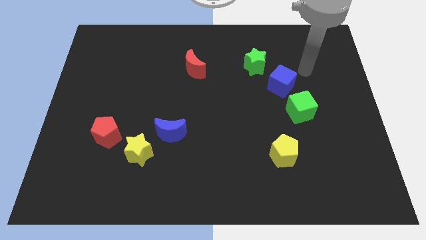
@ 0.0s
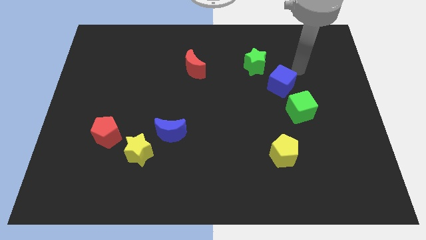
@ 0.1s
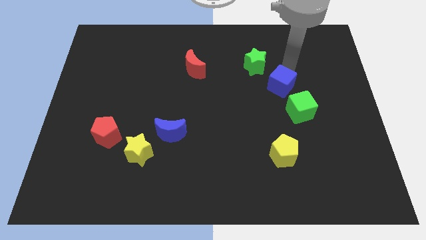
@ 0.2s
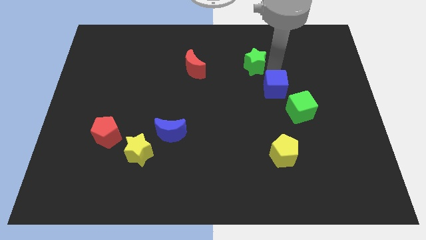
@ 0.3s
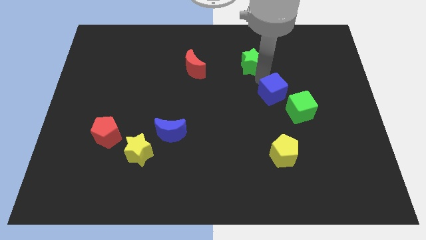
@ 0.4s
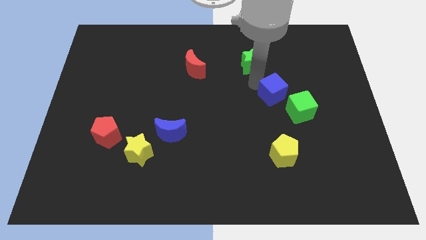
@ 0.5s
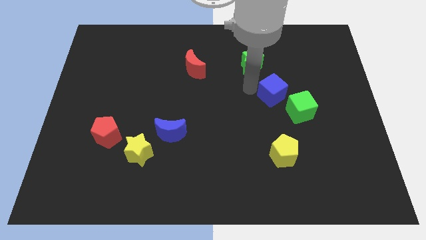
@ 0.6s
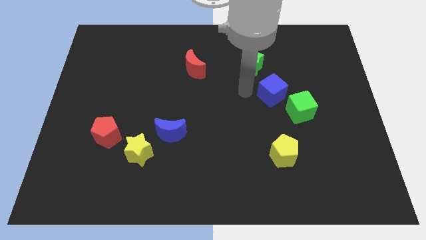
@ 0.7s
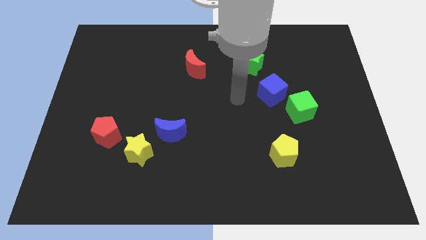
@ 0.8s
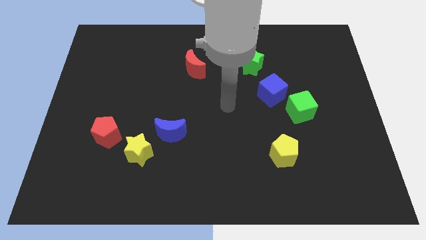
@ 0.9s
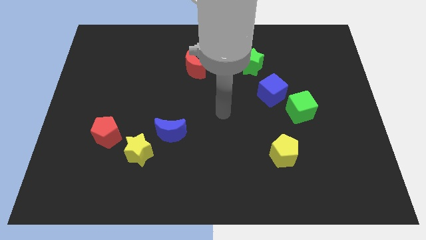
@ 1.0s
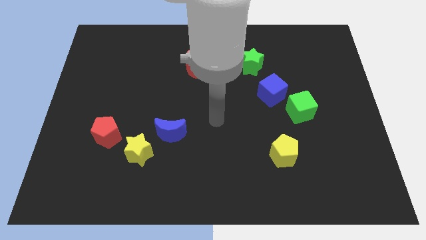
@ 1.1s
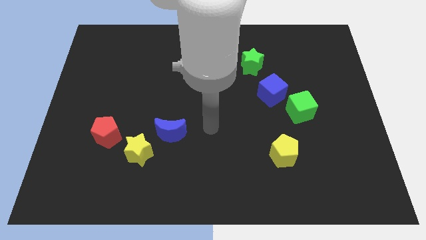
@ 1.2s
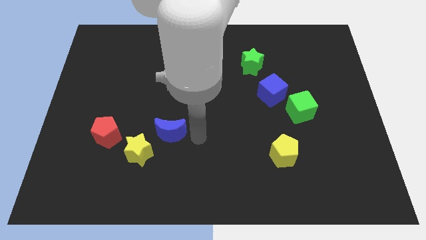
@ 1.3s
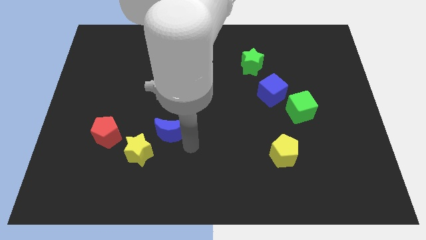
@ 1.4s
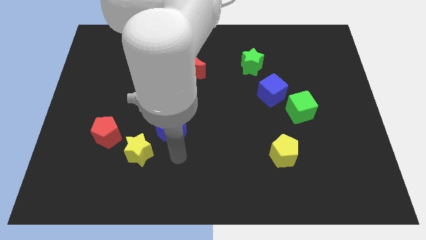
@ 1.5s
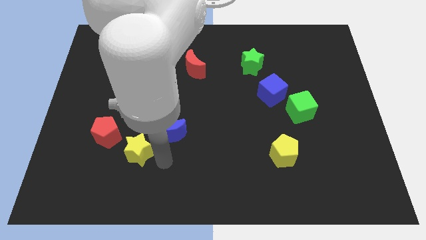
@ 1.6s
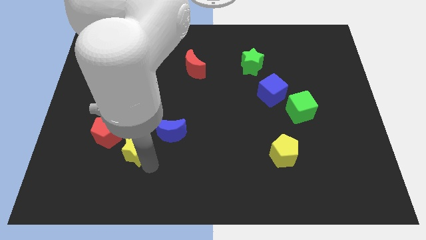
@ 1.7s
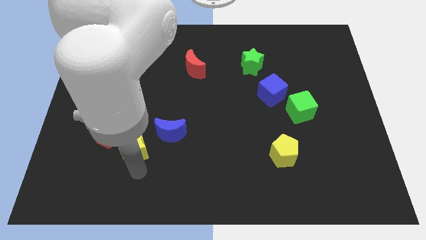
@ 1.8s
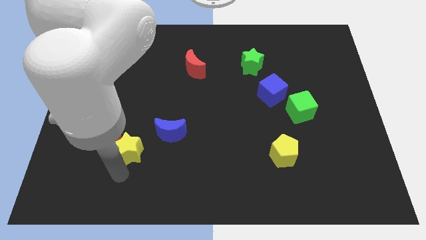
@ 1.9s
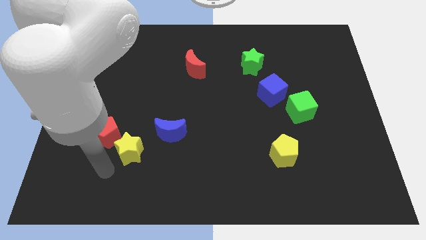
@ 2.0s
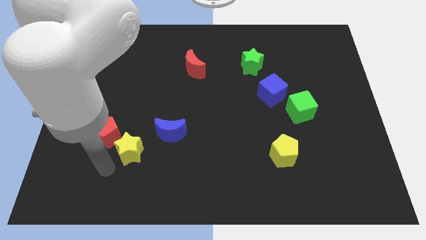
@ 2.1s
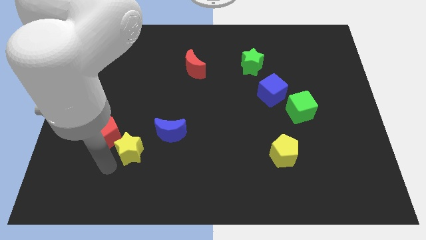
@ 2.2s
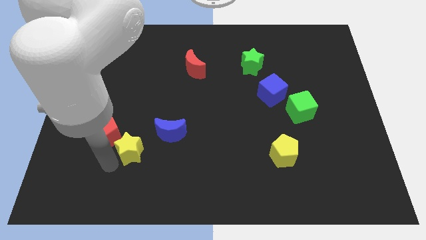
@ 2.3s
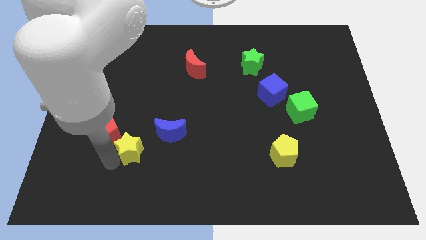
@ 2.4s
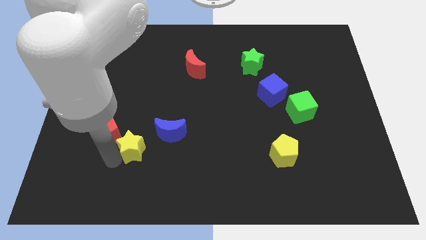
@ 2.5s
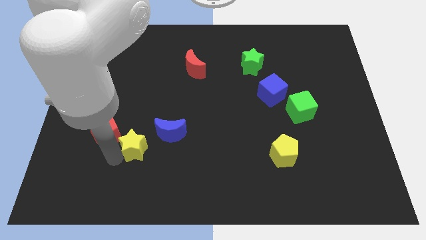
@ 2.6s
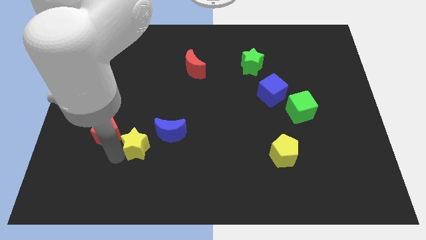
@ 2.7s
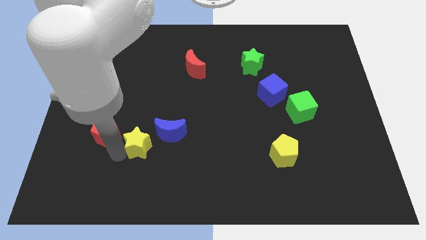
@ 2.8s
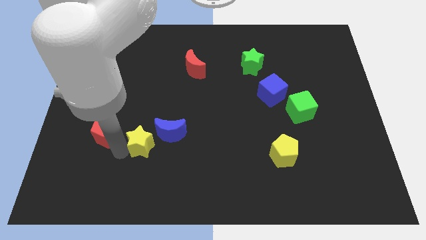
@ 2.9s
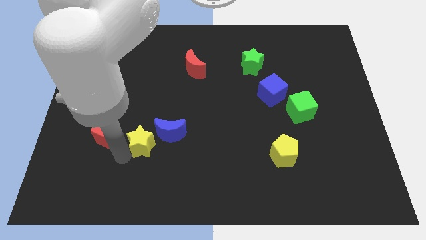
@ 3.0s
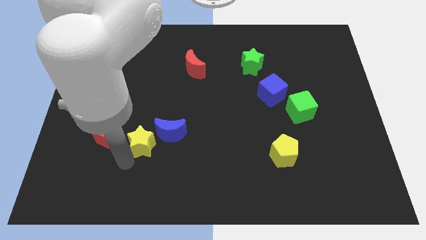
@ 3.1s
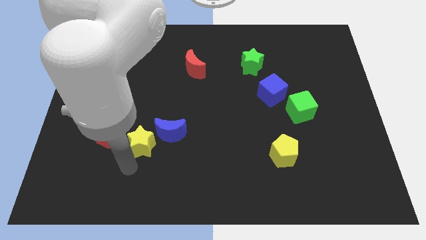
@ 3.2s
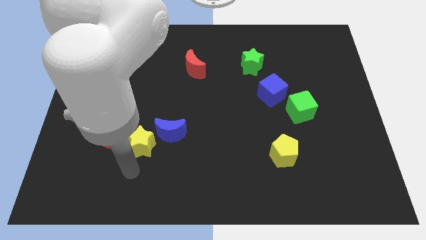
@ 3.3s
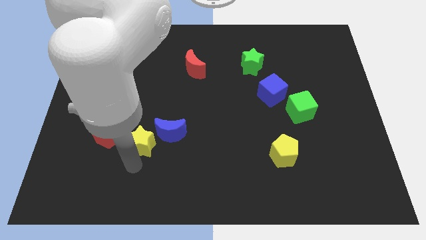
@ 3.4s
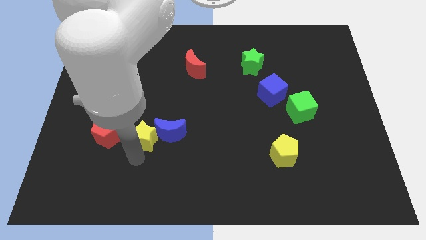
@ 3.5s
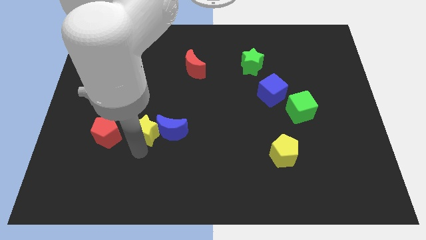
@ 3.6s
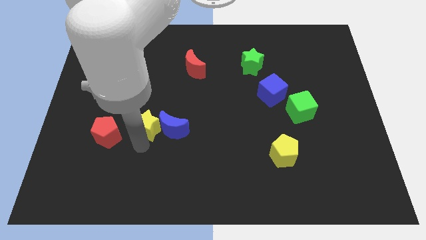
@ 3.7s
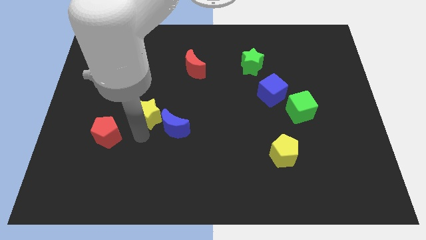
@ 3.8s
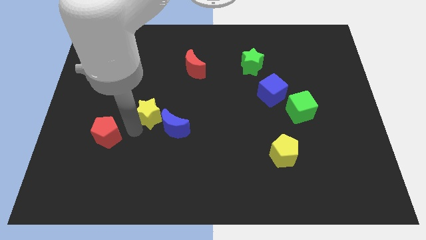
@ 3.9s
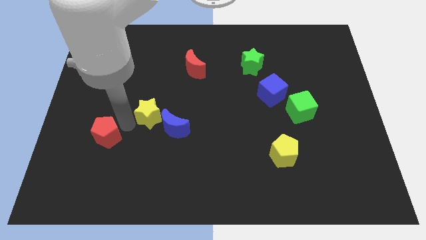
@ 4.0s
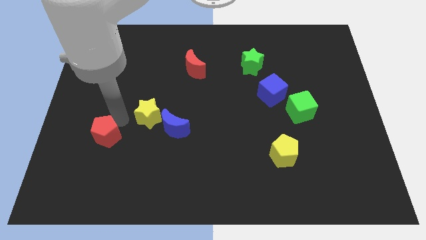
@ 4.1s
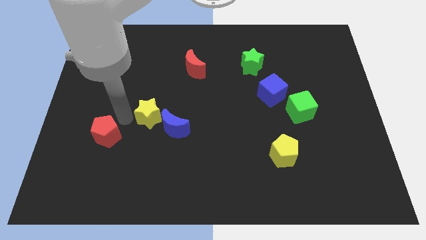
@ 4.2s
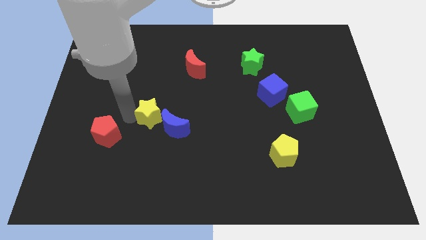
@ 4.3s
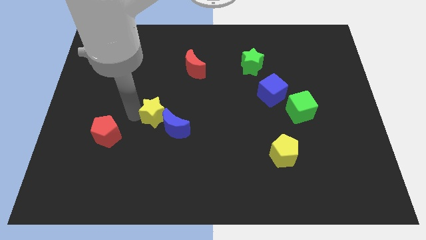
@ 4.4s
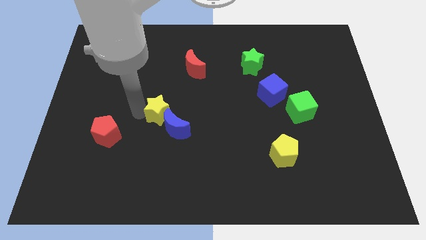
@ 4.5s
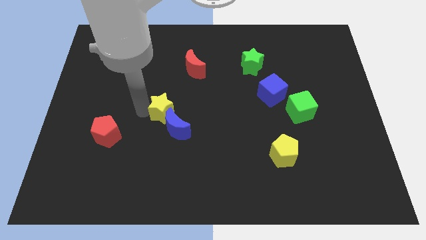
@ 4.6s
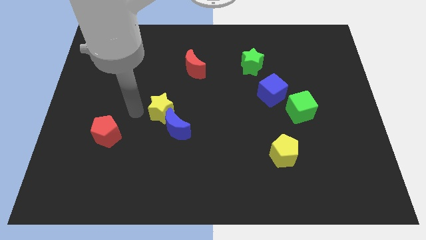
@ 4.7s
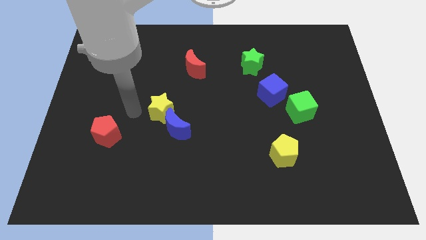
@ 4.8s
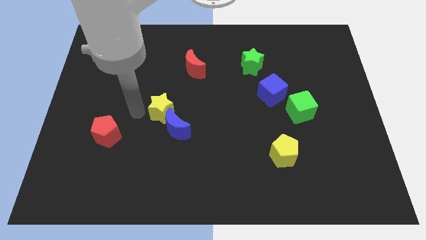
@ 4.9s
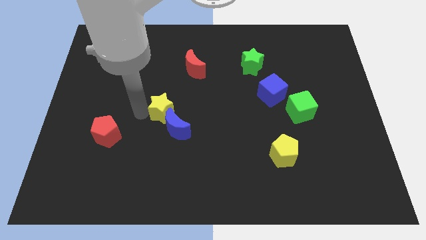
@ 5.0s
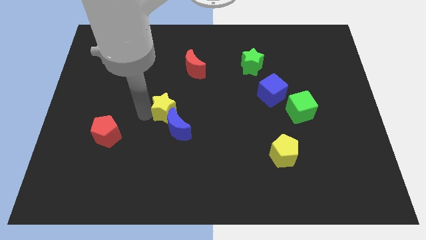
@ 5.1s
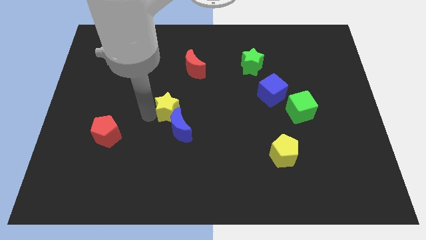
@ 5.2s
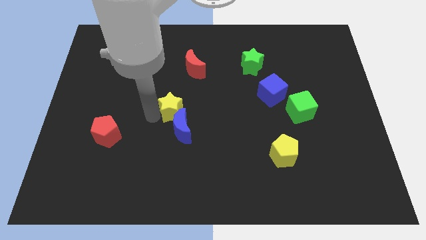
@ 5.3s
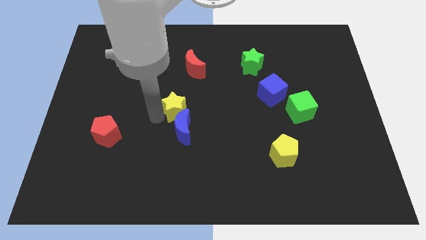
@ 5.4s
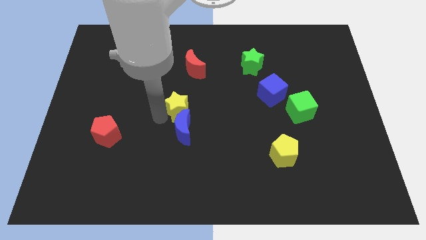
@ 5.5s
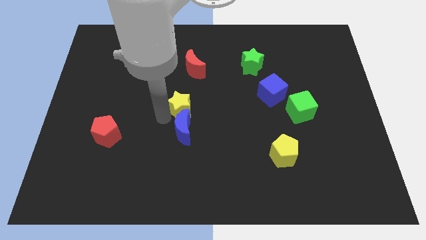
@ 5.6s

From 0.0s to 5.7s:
push the yellow star to the top right side of the blue moon

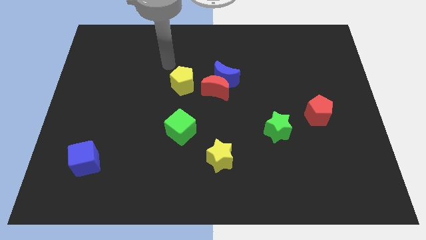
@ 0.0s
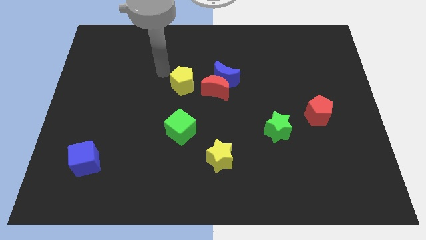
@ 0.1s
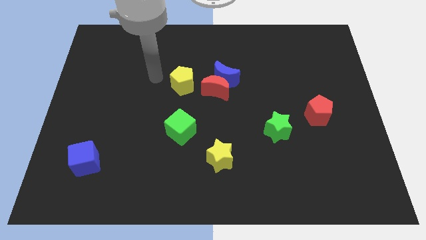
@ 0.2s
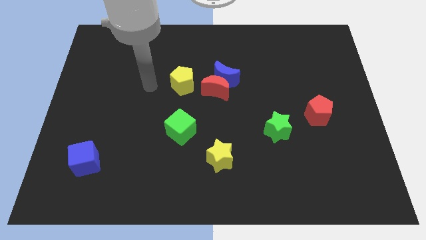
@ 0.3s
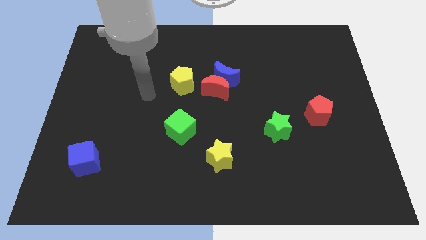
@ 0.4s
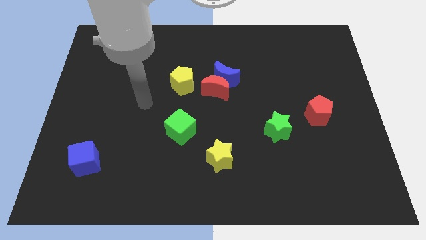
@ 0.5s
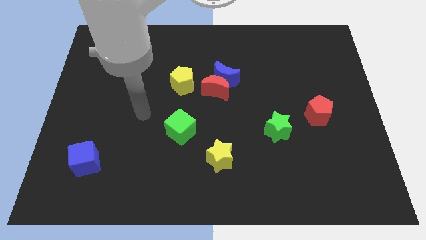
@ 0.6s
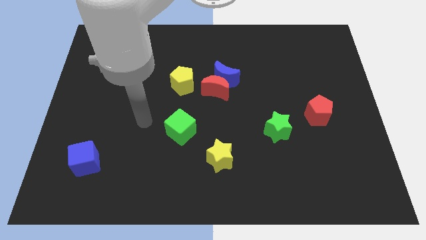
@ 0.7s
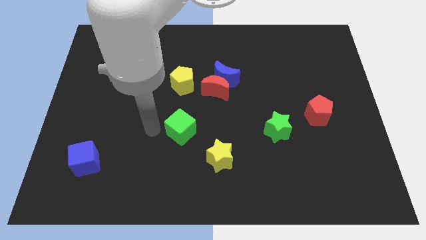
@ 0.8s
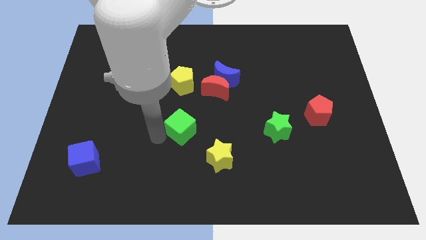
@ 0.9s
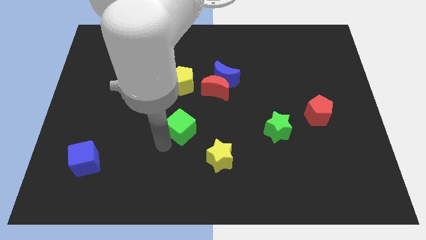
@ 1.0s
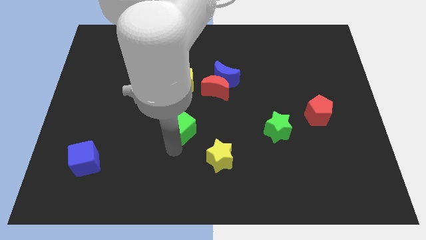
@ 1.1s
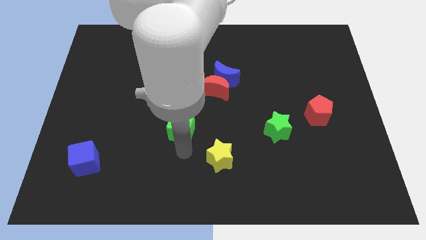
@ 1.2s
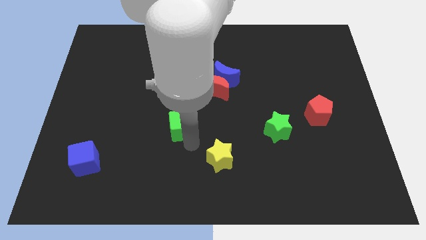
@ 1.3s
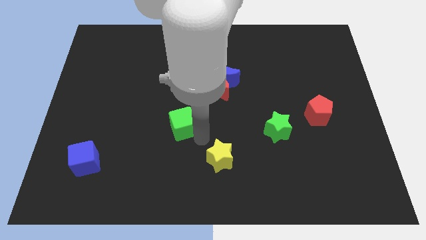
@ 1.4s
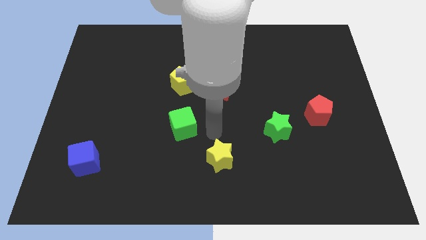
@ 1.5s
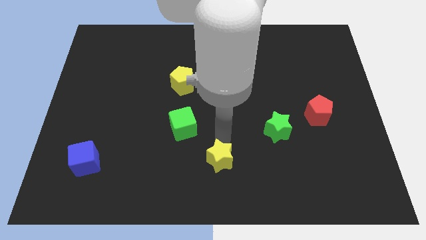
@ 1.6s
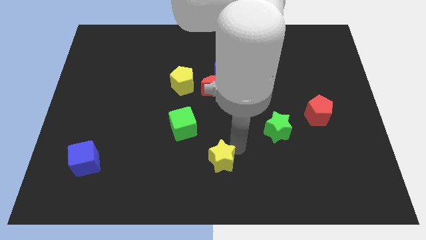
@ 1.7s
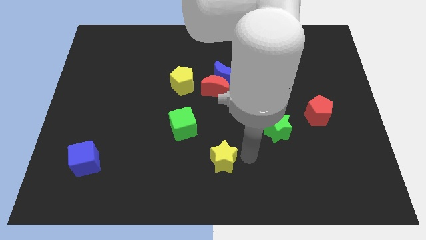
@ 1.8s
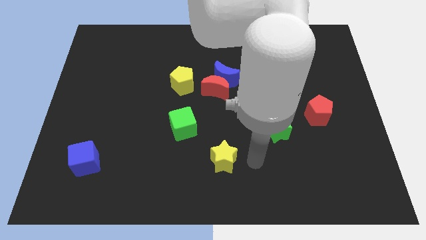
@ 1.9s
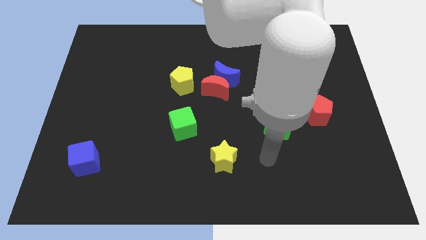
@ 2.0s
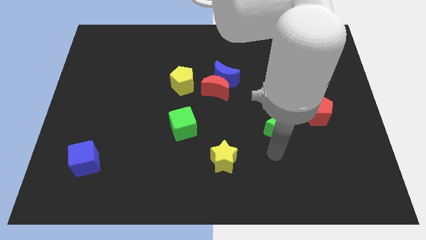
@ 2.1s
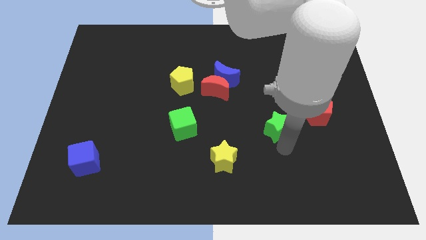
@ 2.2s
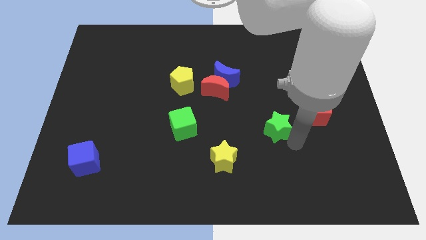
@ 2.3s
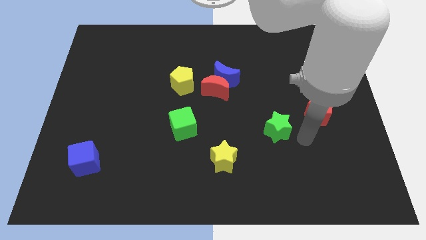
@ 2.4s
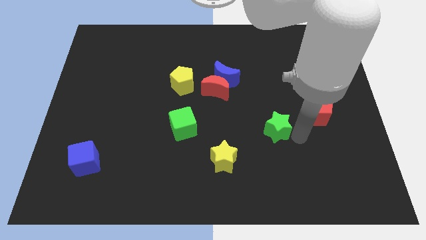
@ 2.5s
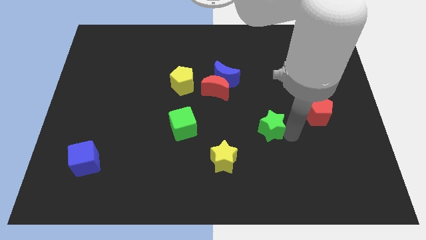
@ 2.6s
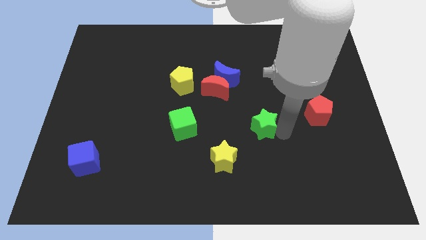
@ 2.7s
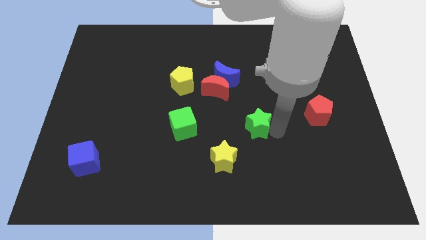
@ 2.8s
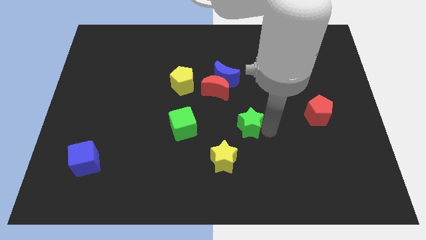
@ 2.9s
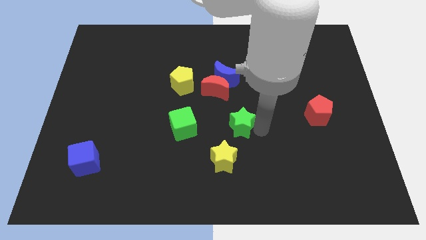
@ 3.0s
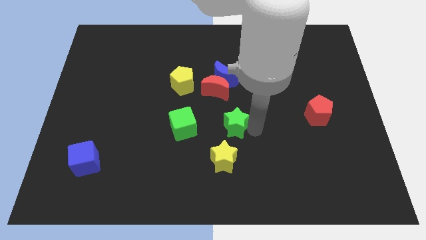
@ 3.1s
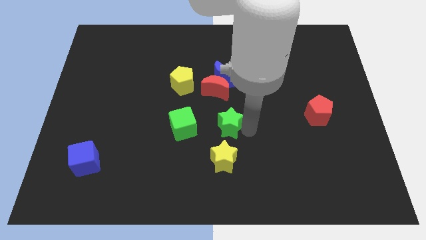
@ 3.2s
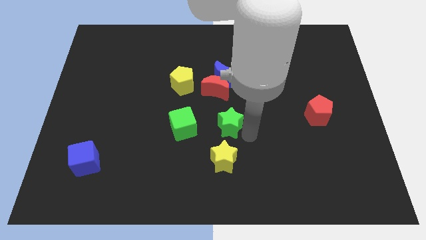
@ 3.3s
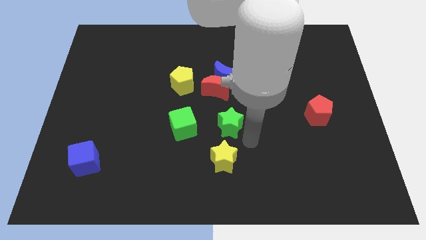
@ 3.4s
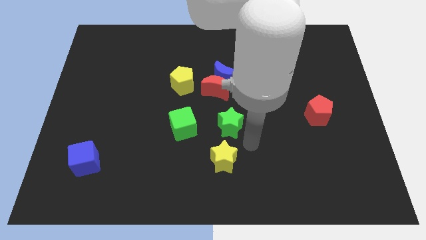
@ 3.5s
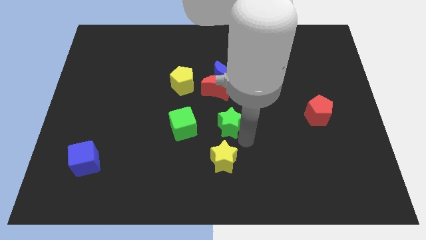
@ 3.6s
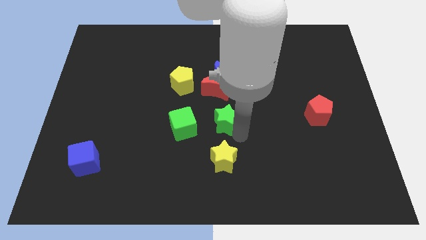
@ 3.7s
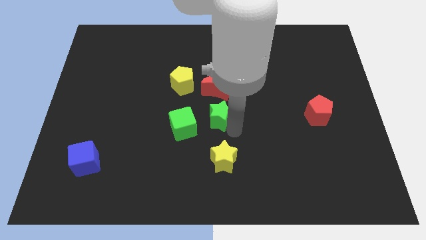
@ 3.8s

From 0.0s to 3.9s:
put the green star to the top right side of the green cube
